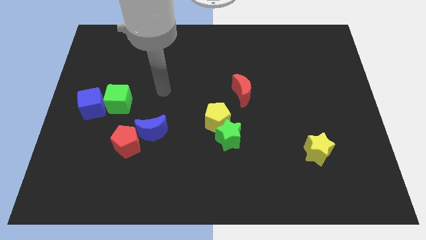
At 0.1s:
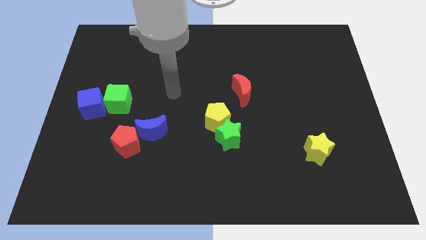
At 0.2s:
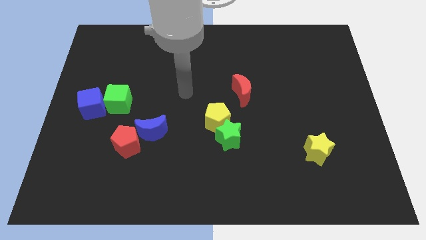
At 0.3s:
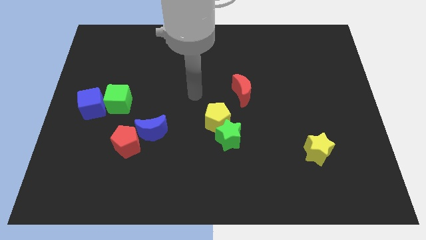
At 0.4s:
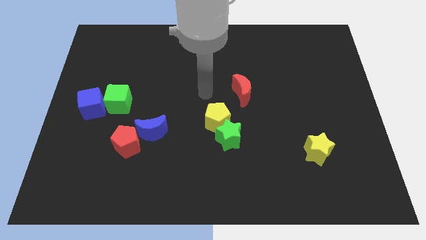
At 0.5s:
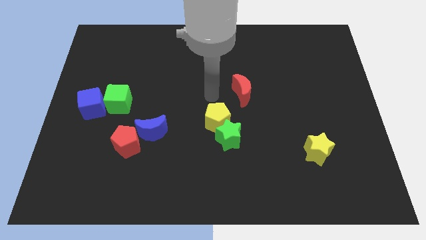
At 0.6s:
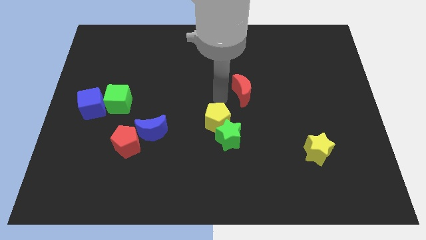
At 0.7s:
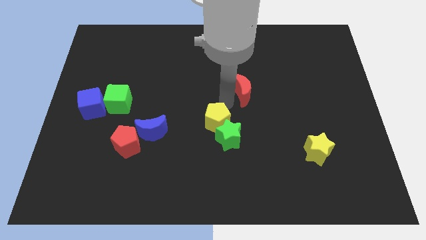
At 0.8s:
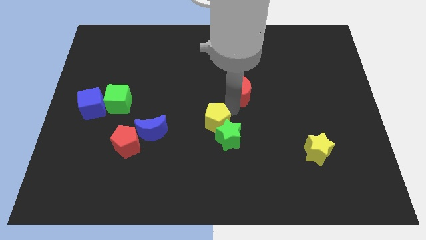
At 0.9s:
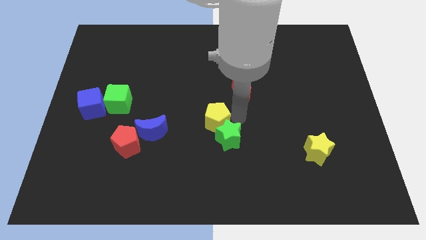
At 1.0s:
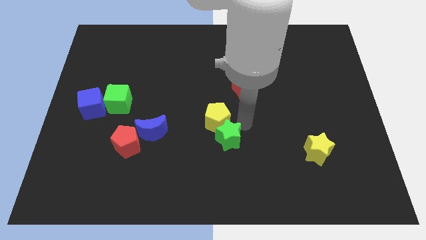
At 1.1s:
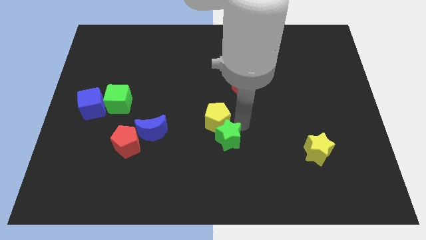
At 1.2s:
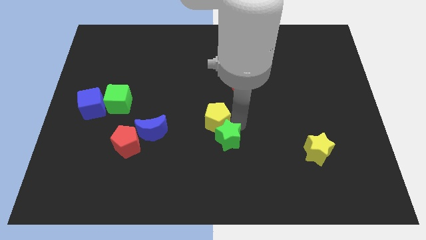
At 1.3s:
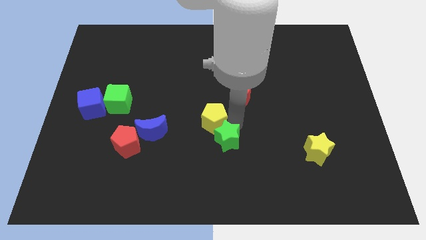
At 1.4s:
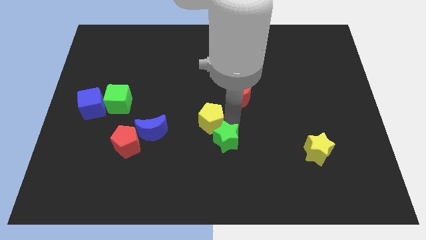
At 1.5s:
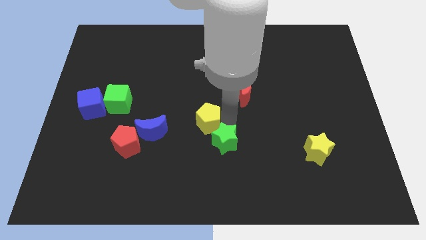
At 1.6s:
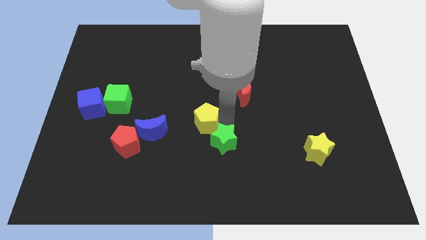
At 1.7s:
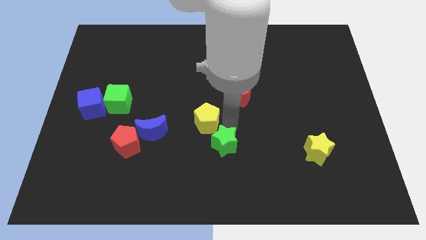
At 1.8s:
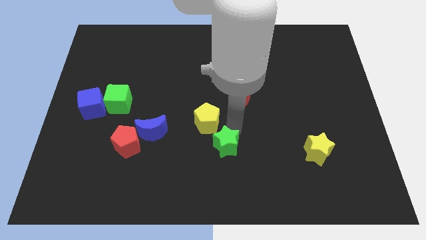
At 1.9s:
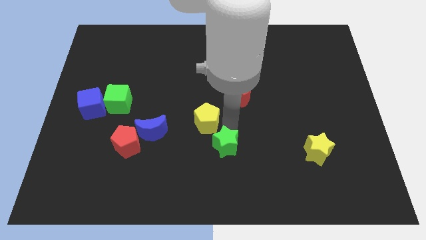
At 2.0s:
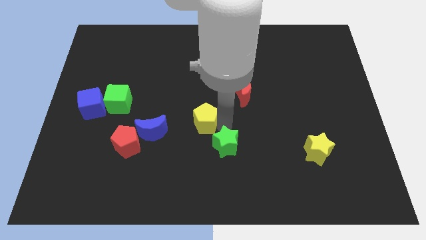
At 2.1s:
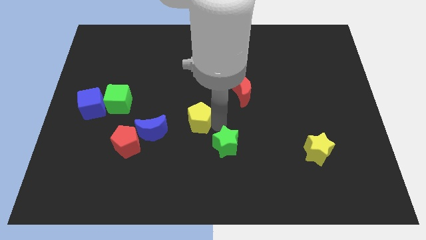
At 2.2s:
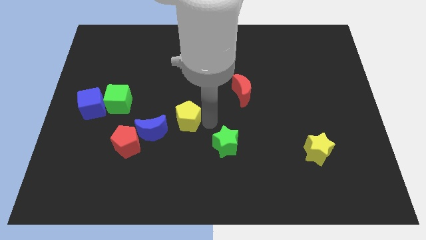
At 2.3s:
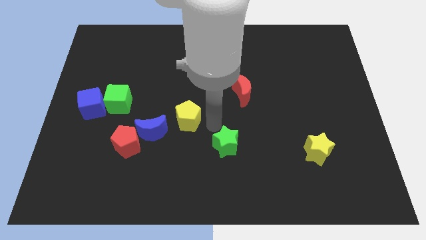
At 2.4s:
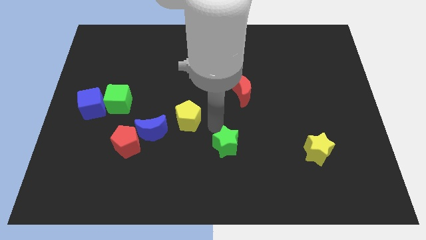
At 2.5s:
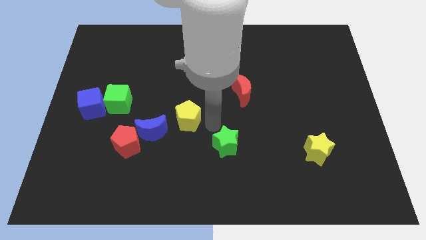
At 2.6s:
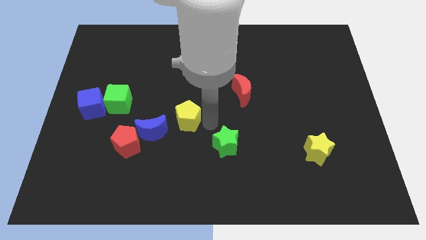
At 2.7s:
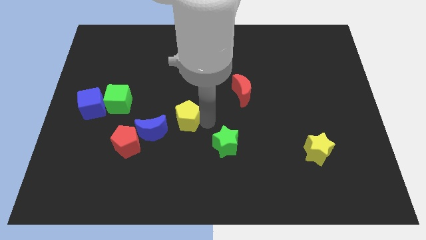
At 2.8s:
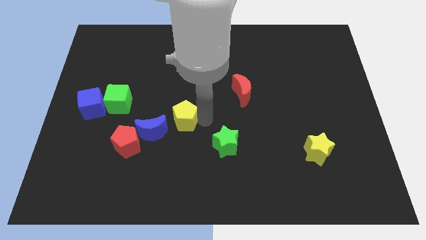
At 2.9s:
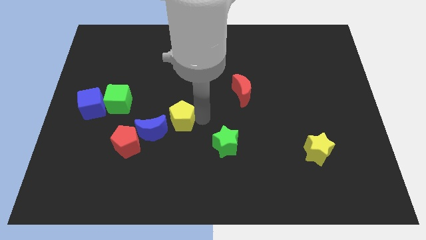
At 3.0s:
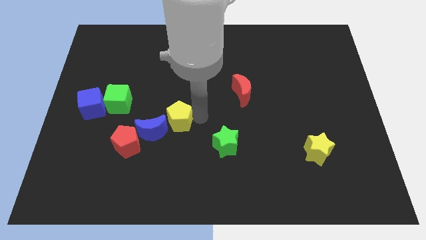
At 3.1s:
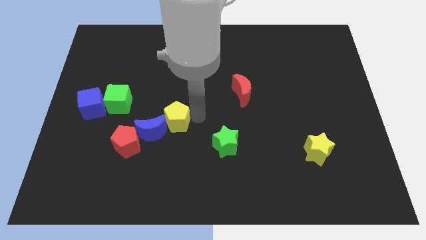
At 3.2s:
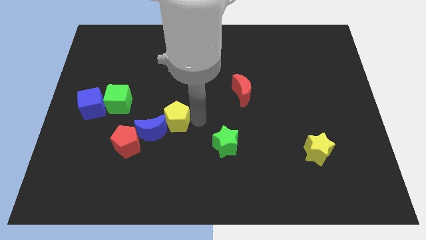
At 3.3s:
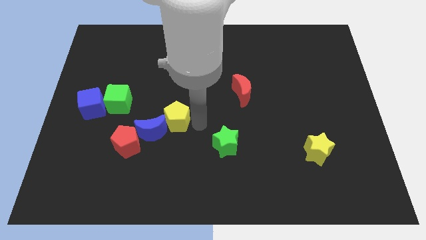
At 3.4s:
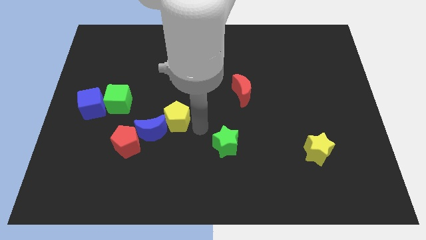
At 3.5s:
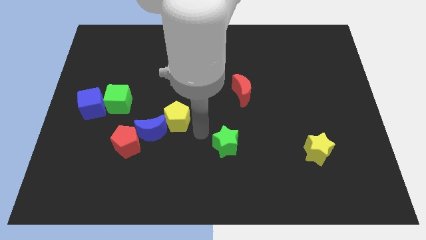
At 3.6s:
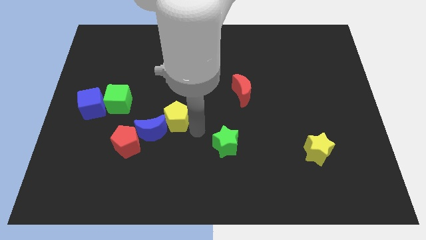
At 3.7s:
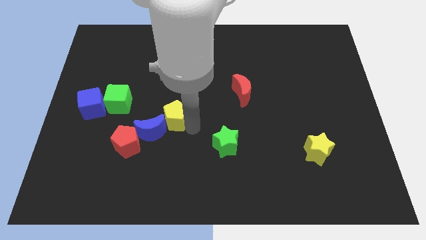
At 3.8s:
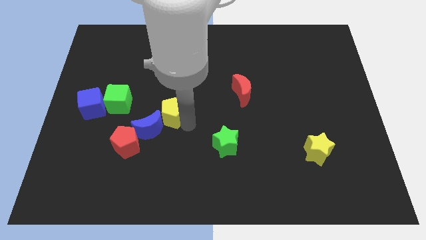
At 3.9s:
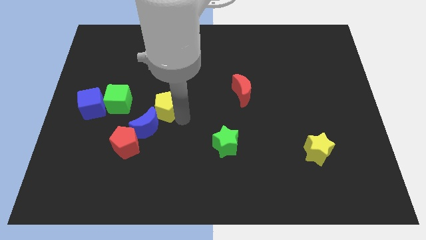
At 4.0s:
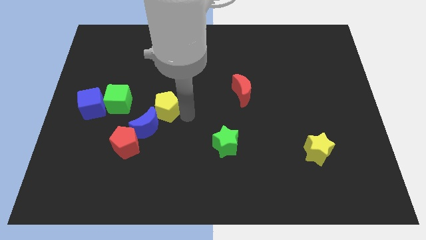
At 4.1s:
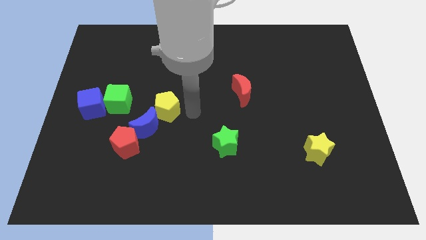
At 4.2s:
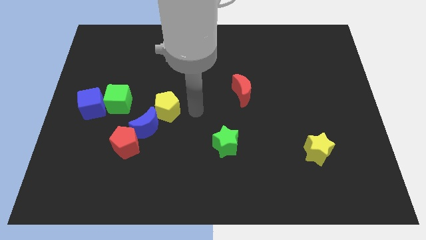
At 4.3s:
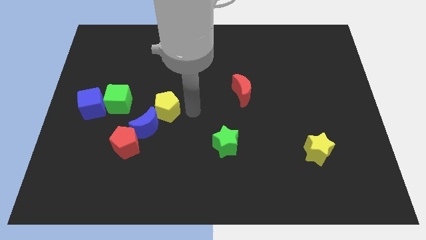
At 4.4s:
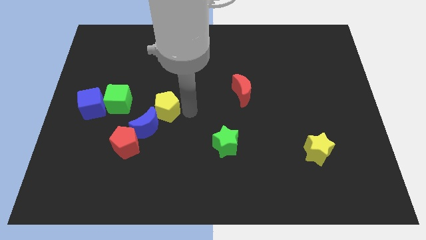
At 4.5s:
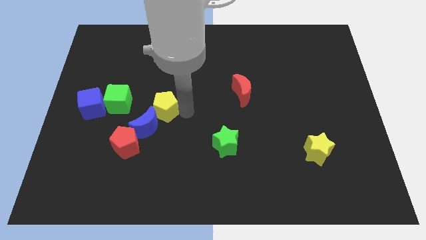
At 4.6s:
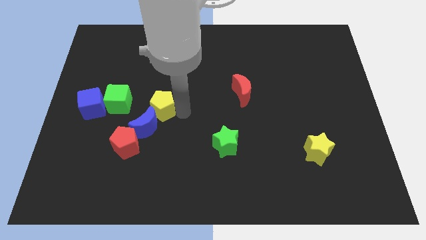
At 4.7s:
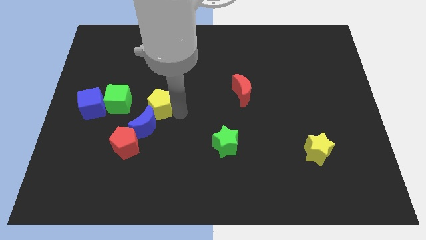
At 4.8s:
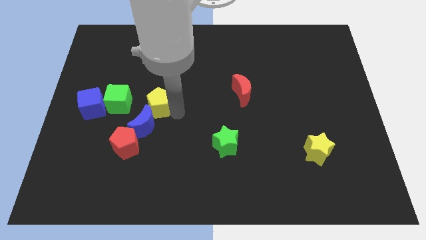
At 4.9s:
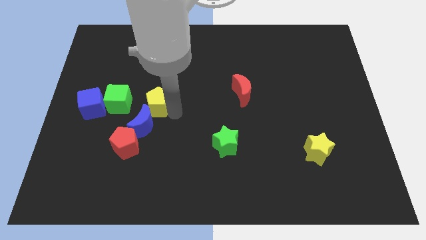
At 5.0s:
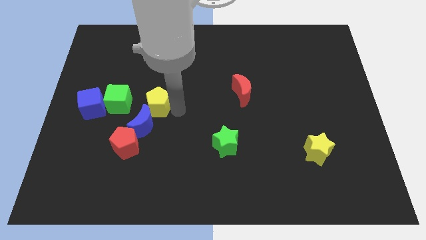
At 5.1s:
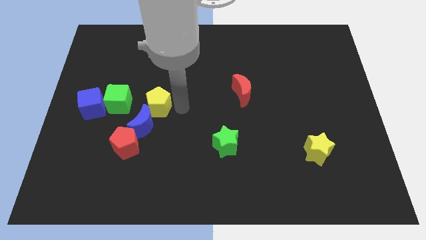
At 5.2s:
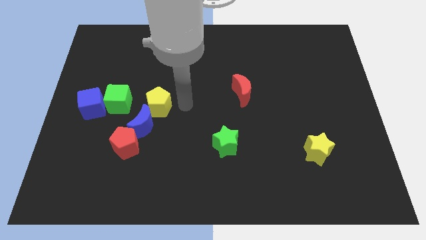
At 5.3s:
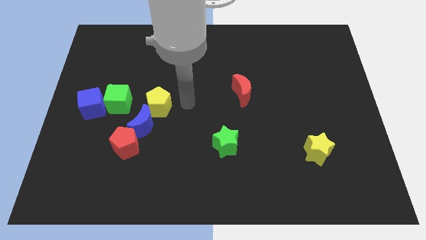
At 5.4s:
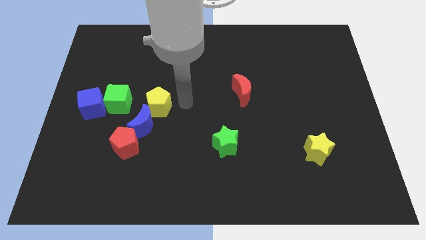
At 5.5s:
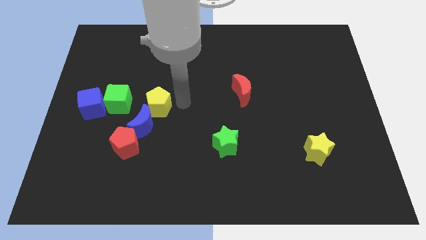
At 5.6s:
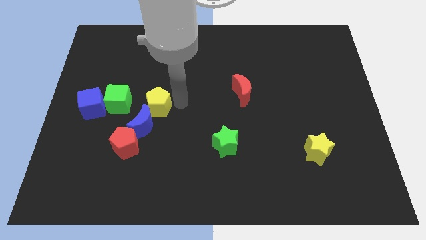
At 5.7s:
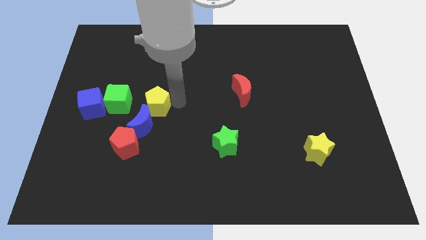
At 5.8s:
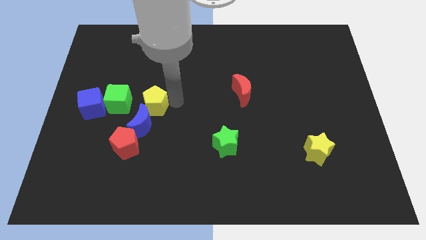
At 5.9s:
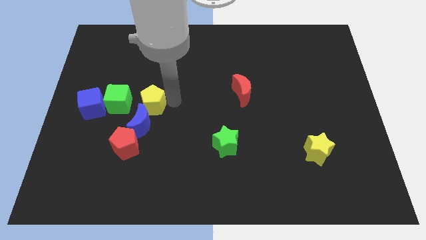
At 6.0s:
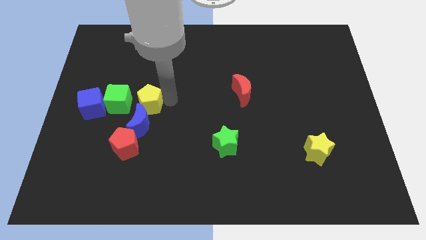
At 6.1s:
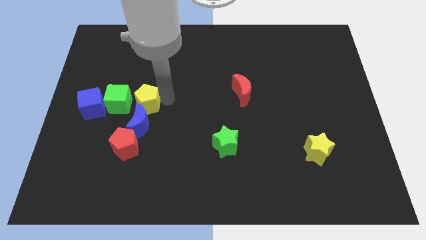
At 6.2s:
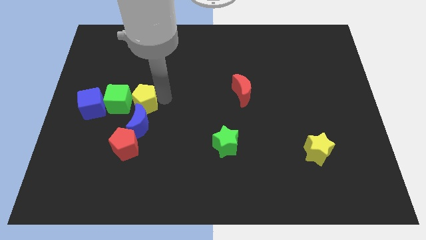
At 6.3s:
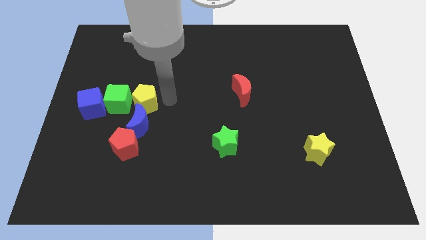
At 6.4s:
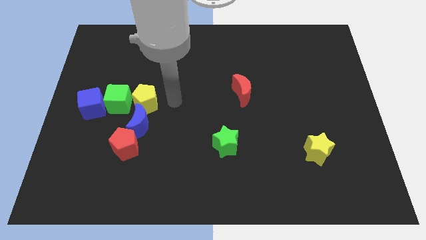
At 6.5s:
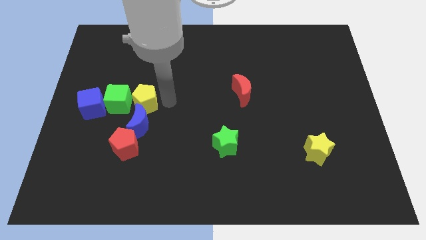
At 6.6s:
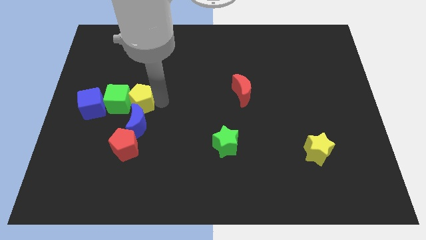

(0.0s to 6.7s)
push the yellow pentagon next to the green cube

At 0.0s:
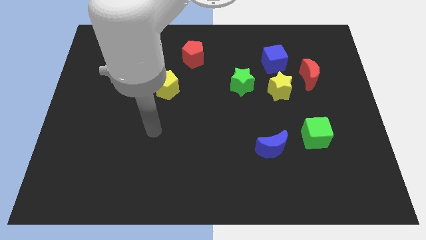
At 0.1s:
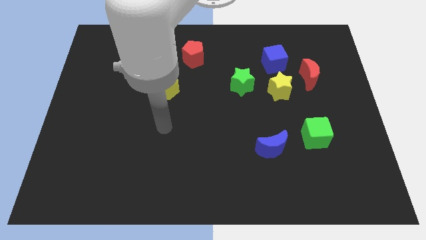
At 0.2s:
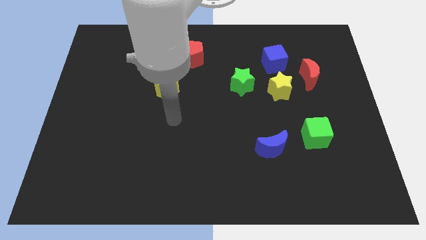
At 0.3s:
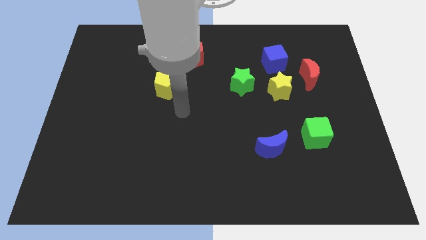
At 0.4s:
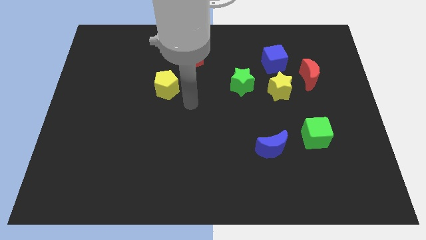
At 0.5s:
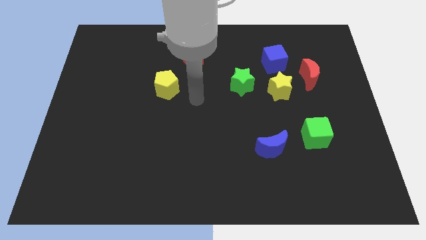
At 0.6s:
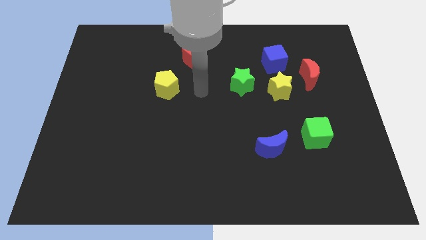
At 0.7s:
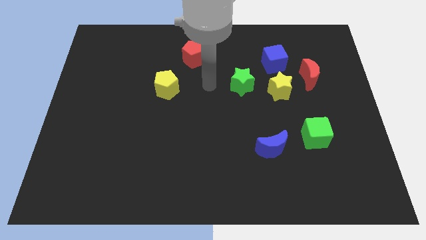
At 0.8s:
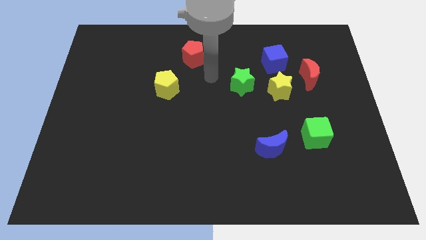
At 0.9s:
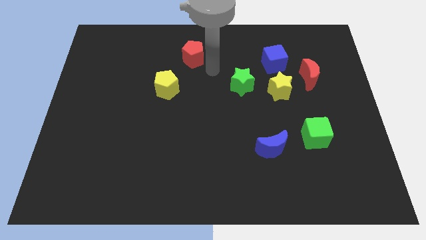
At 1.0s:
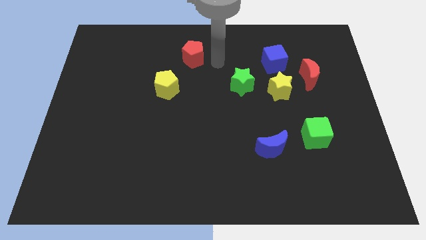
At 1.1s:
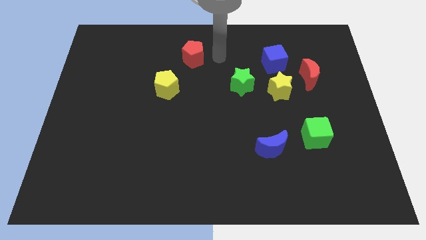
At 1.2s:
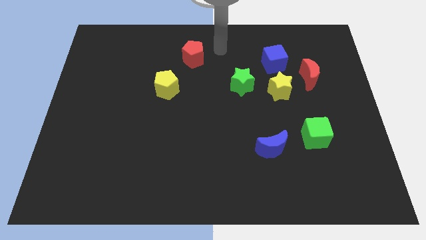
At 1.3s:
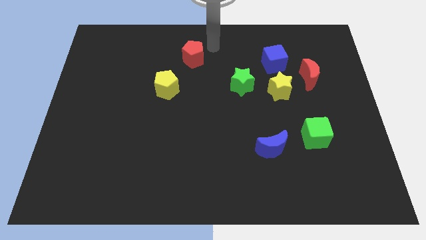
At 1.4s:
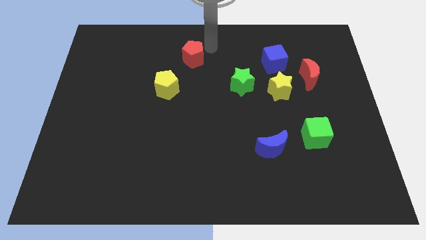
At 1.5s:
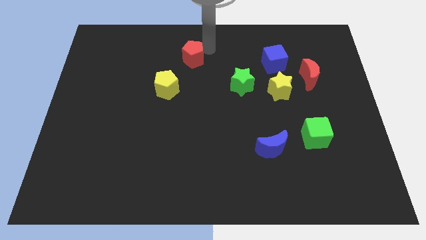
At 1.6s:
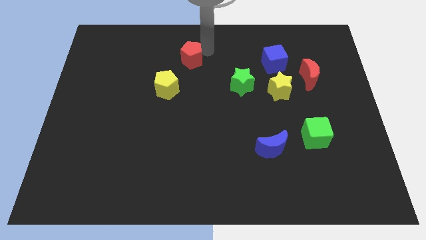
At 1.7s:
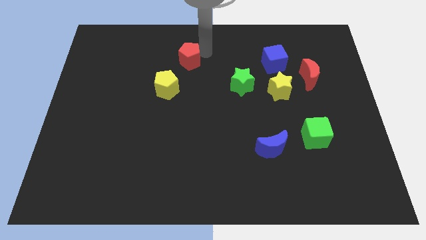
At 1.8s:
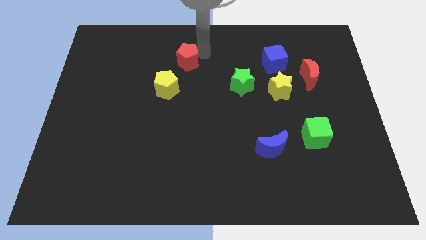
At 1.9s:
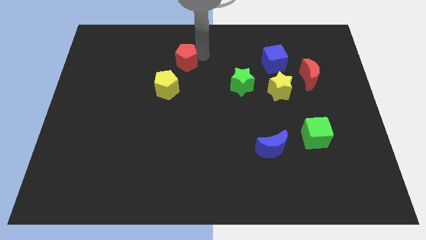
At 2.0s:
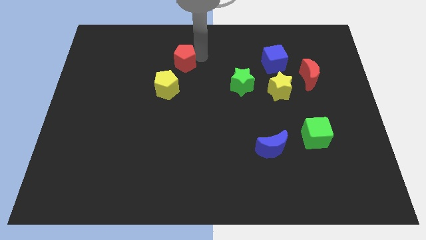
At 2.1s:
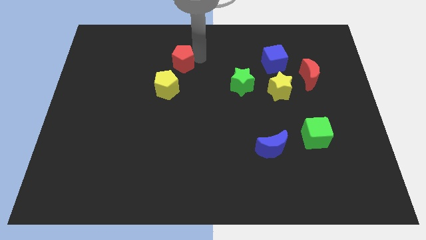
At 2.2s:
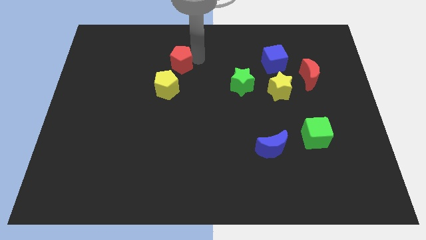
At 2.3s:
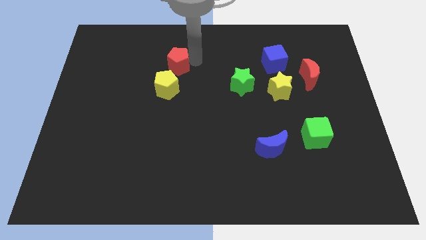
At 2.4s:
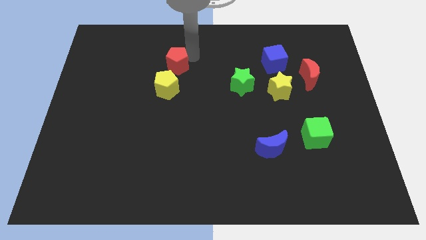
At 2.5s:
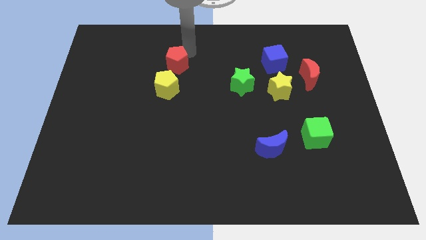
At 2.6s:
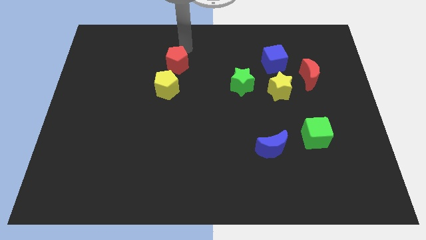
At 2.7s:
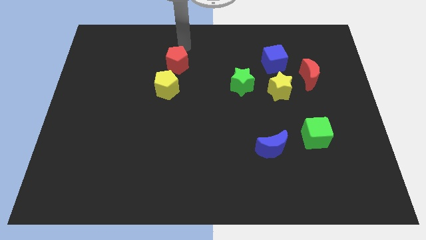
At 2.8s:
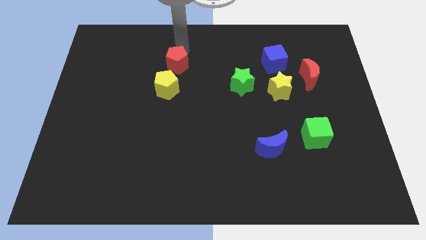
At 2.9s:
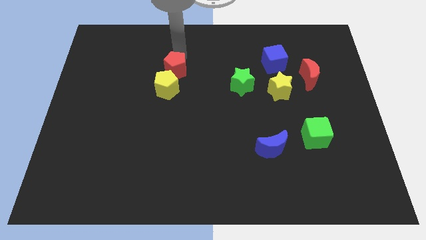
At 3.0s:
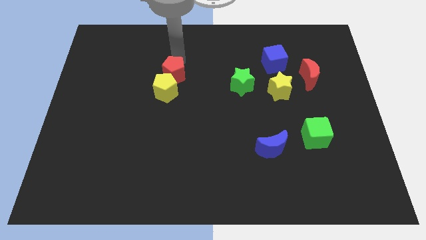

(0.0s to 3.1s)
put the red pentagon towards the yellow pentagon
